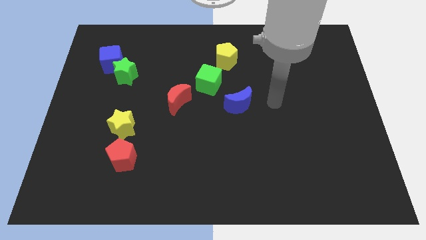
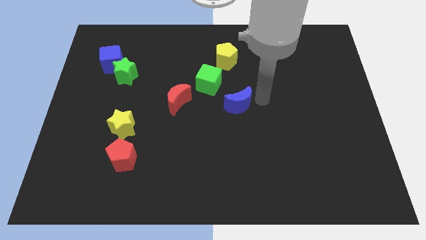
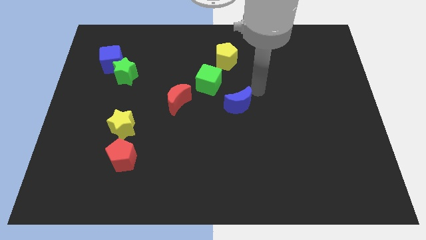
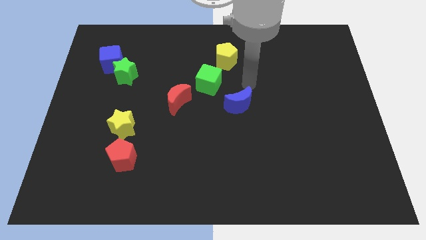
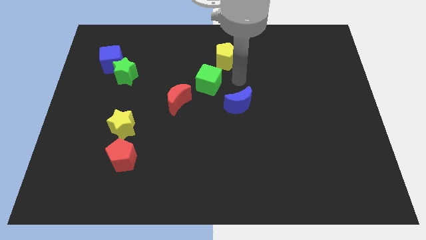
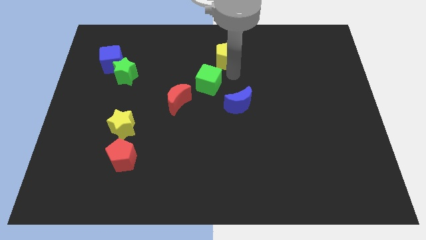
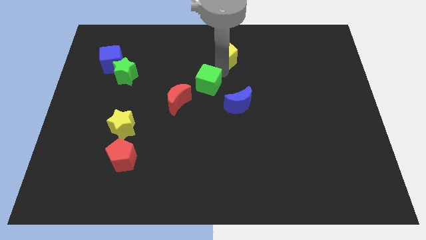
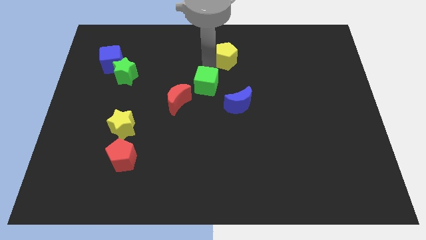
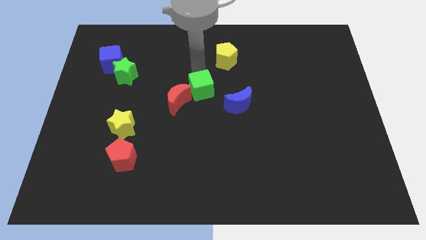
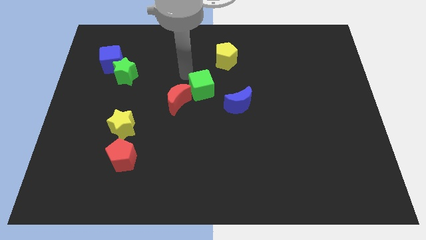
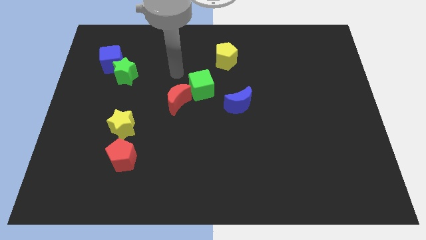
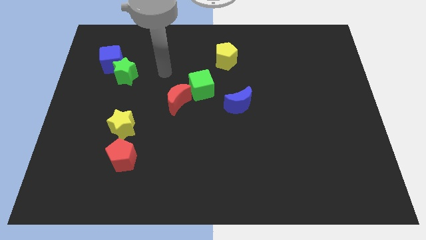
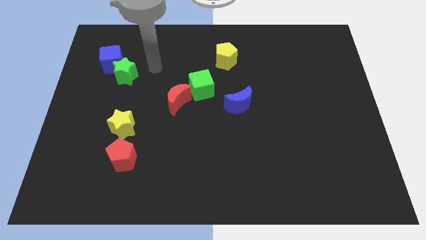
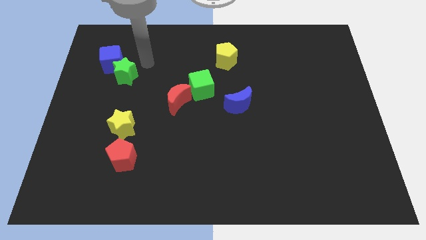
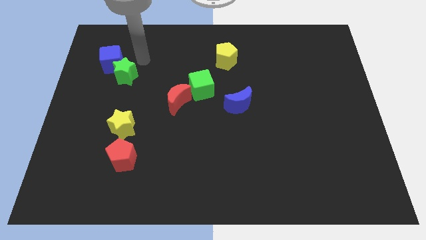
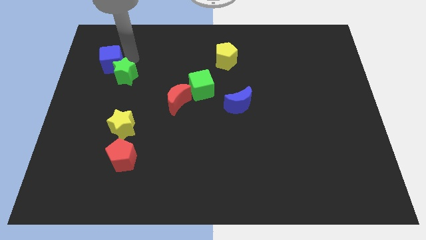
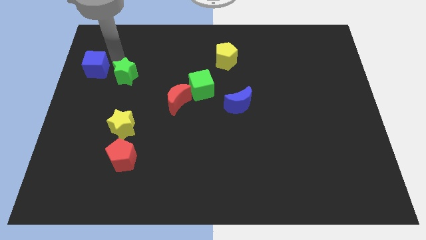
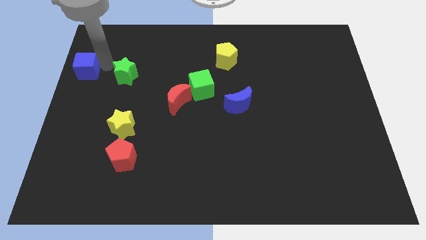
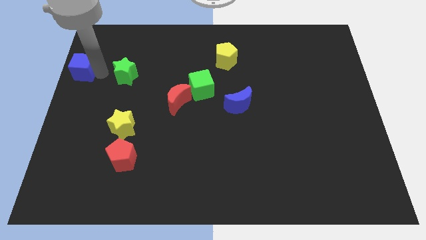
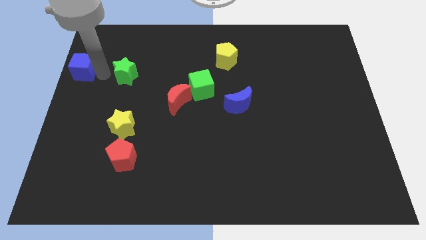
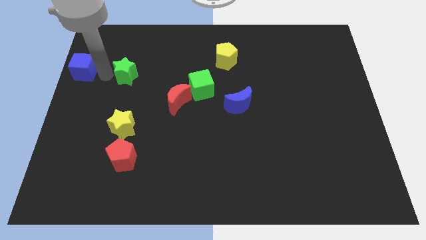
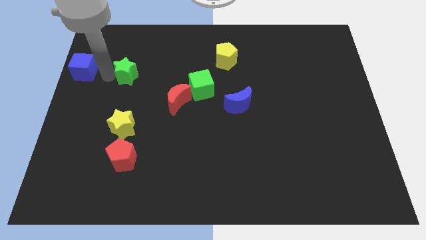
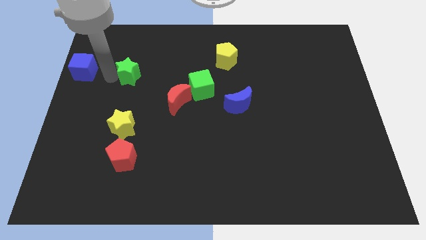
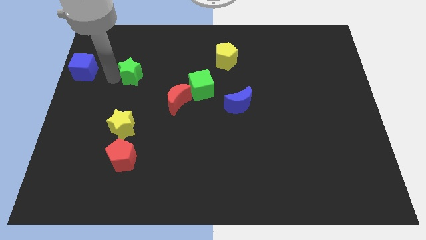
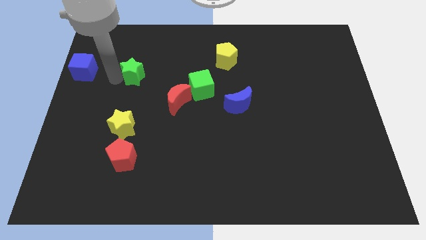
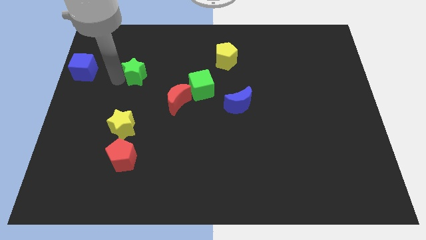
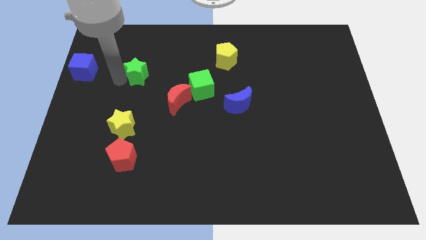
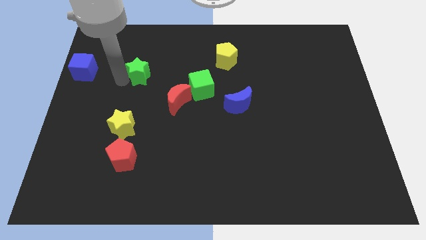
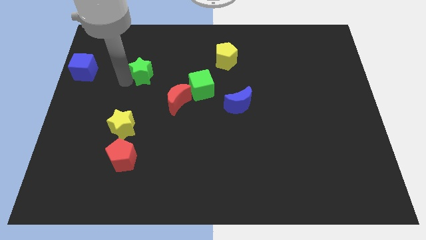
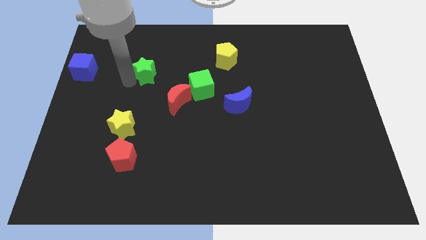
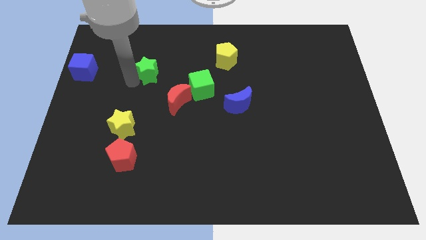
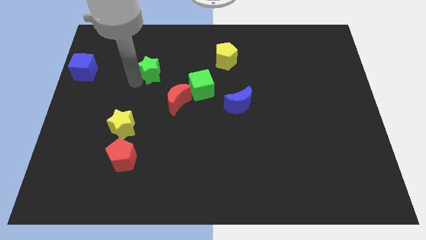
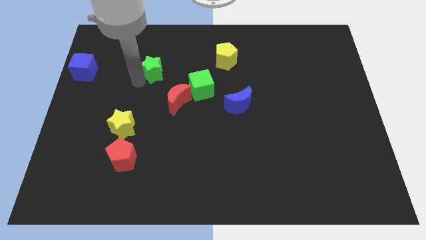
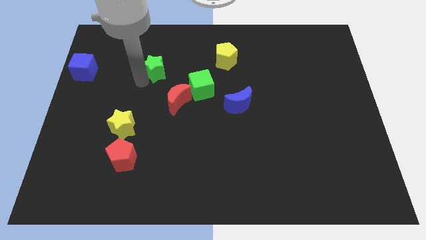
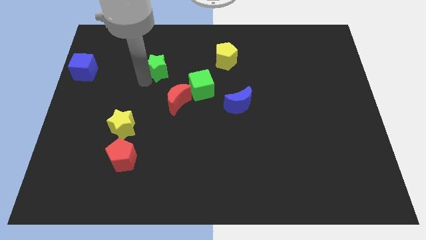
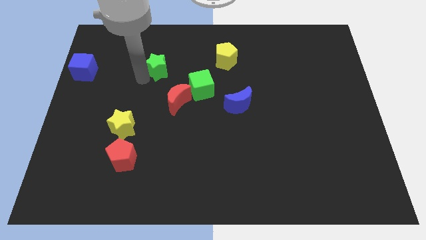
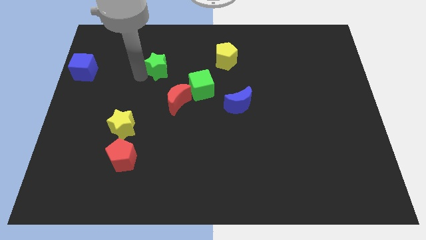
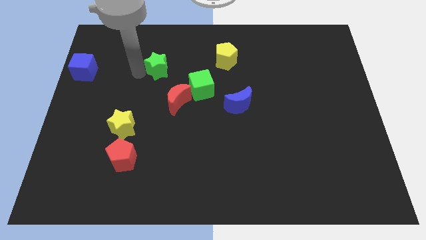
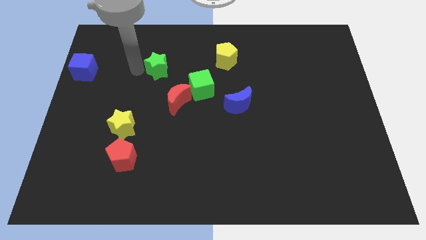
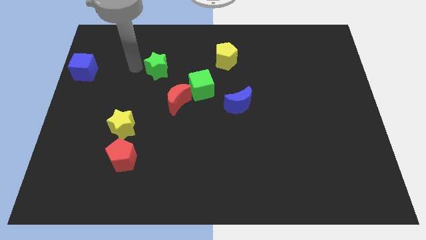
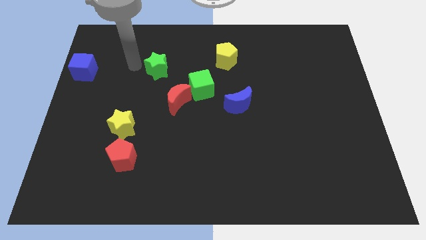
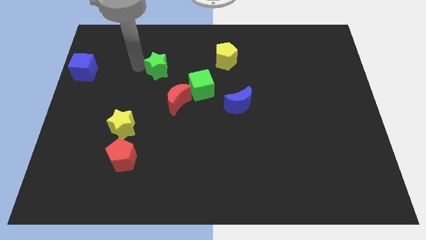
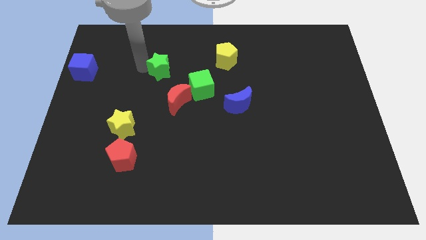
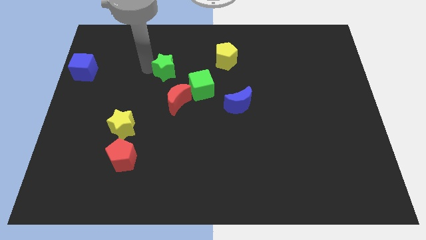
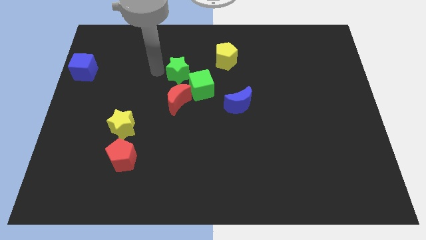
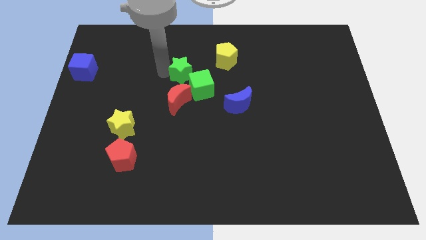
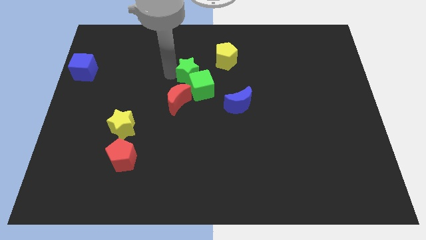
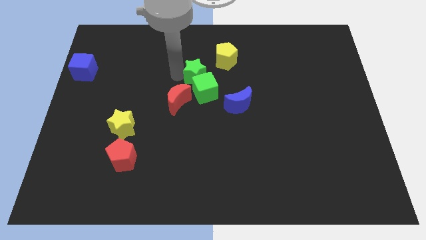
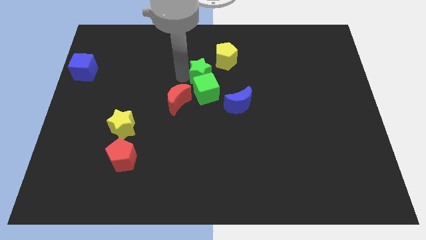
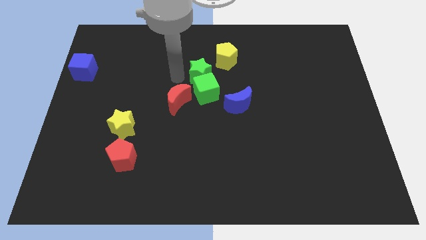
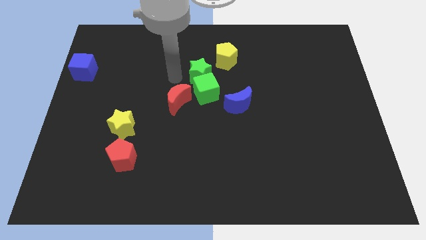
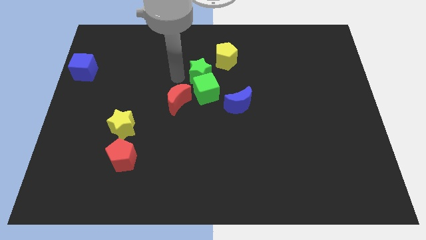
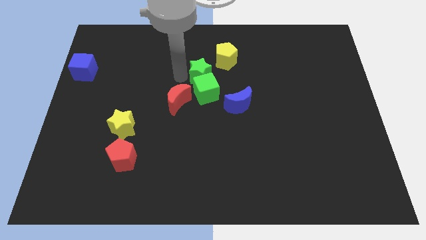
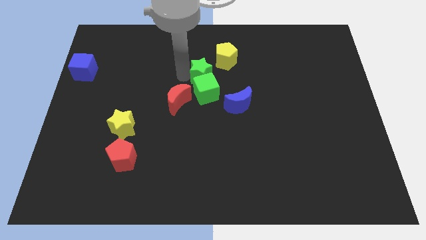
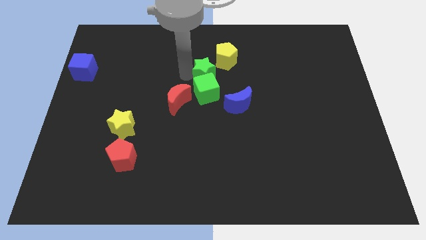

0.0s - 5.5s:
push the green star right

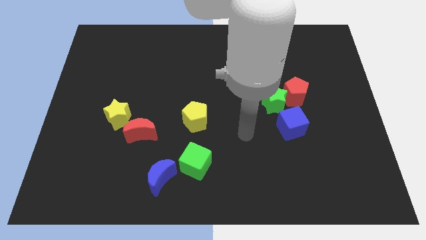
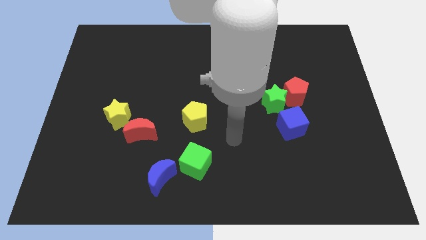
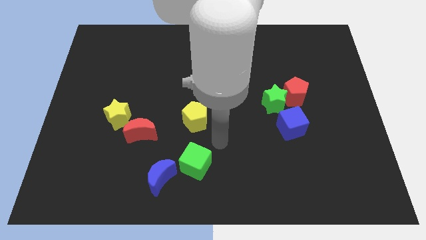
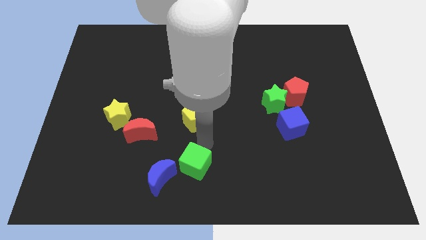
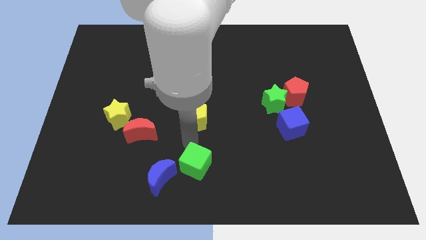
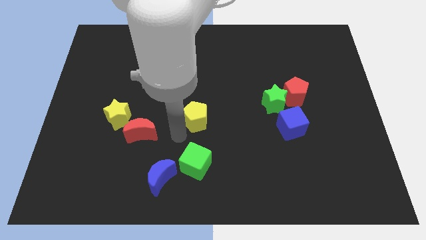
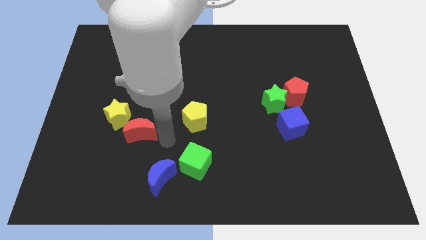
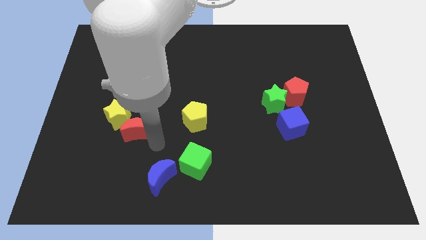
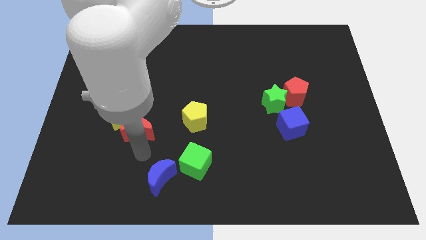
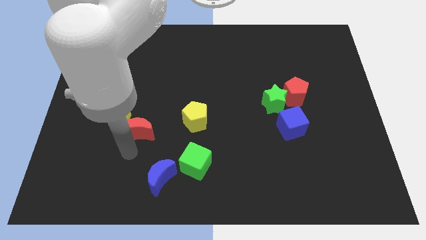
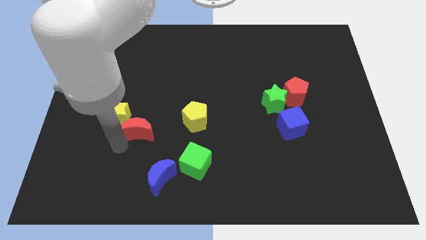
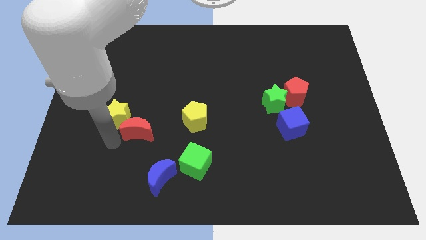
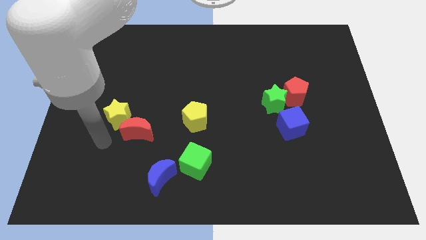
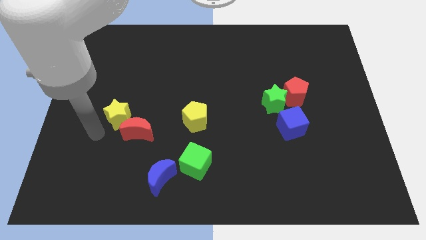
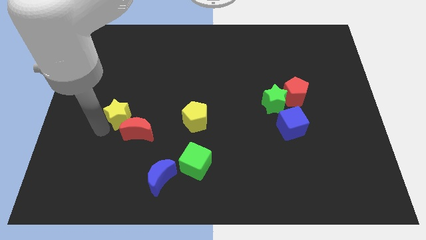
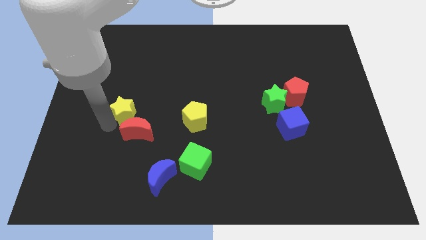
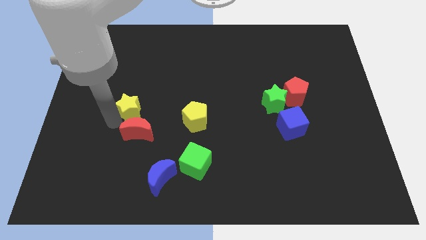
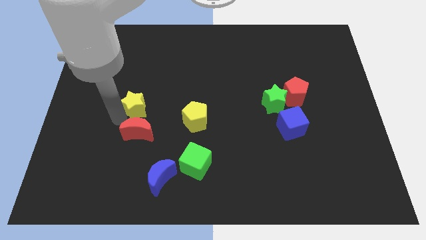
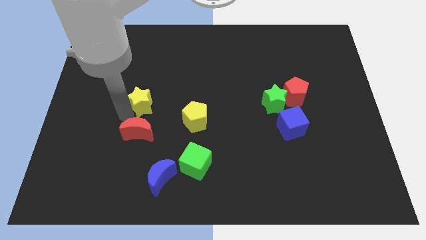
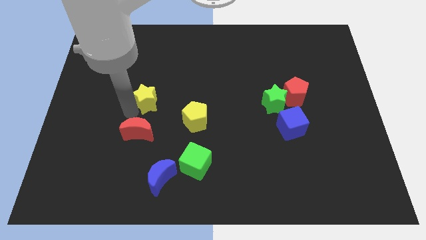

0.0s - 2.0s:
move the yellow star slightly upwards and then to the right

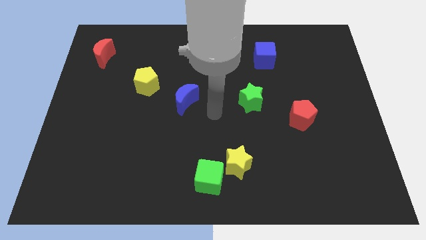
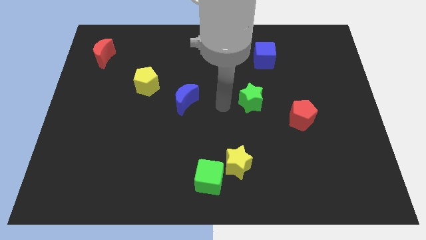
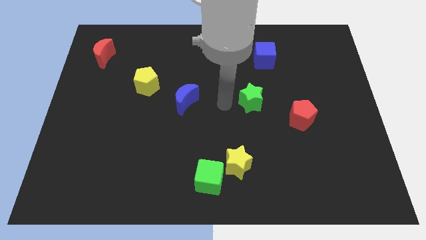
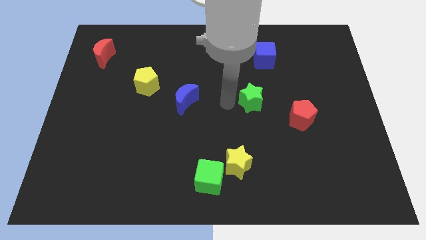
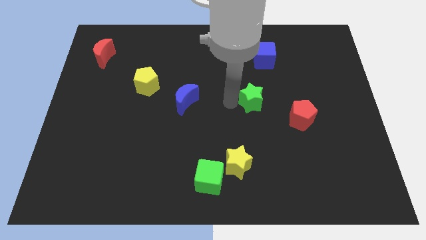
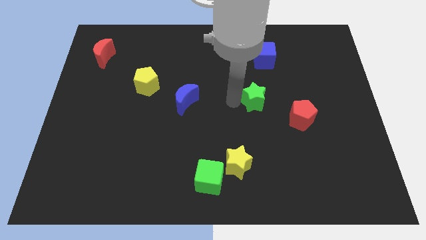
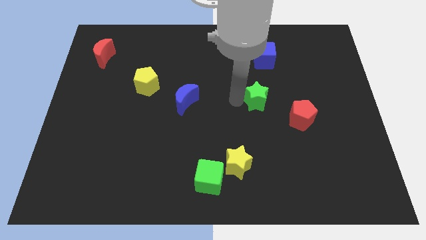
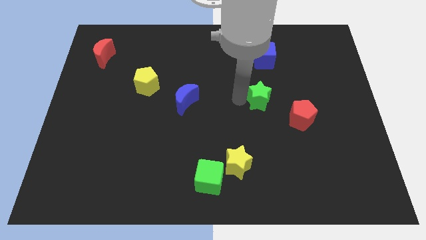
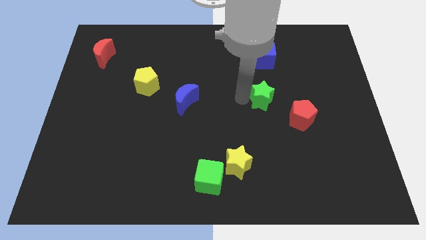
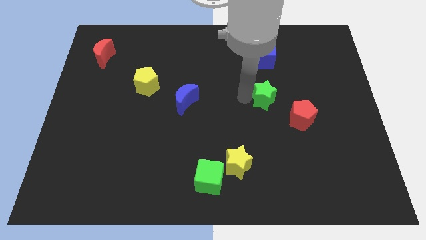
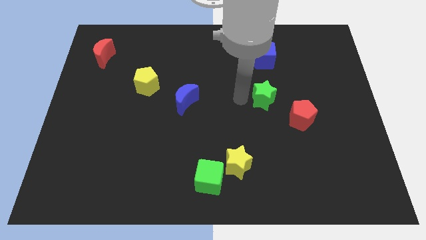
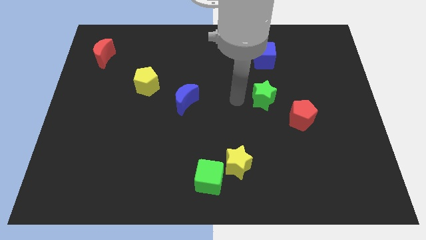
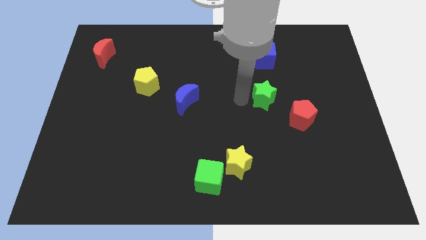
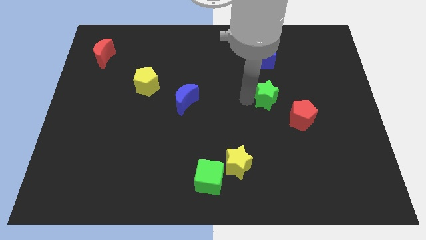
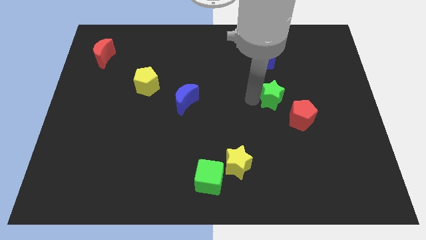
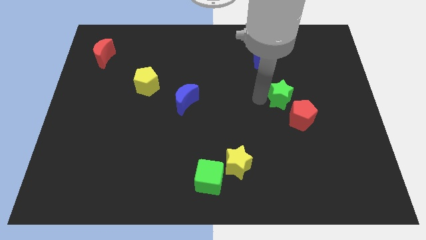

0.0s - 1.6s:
move the green star right a little bit
